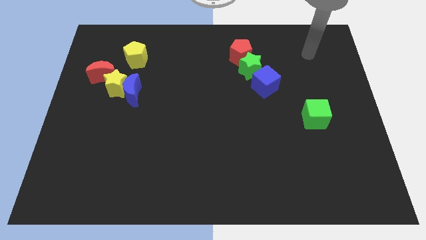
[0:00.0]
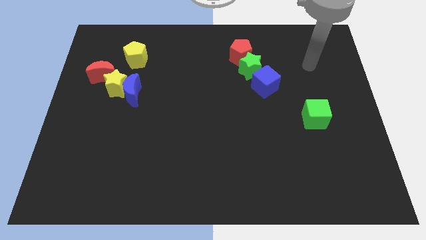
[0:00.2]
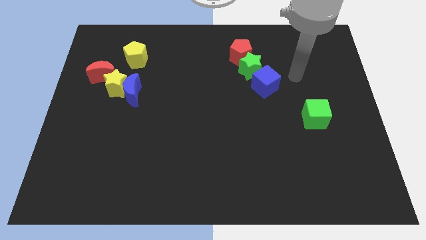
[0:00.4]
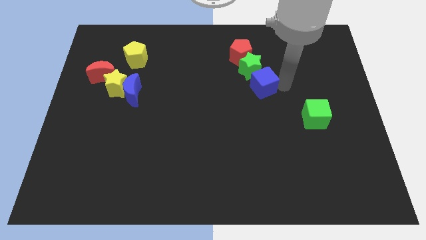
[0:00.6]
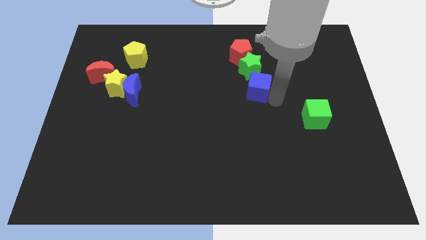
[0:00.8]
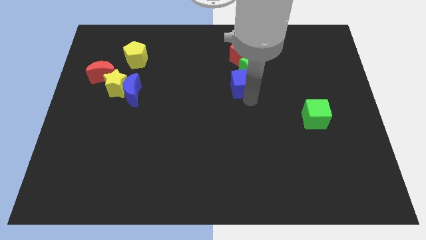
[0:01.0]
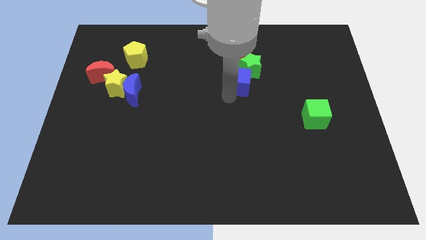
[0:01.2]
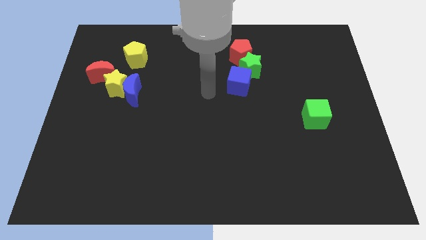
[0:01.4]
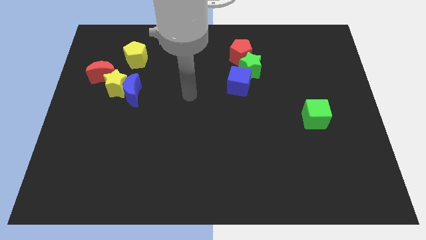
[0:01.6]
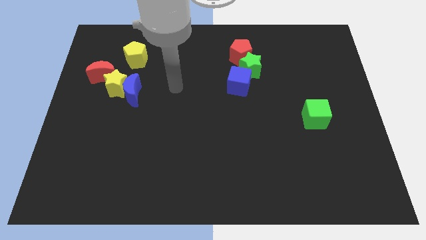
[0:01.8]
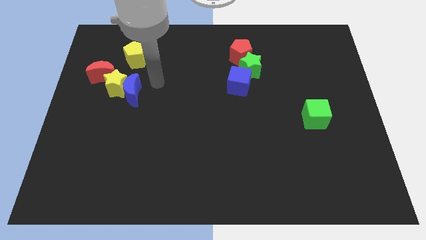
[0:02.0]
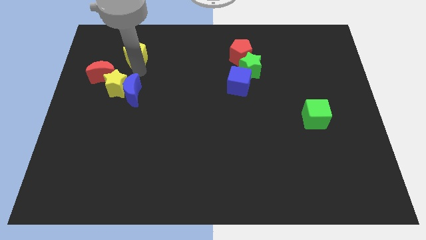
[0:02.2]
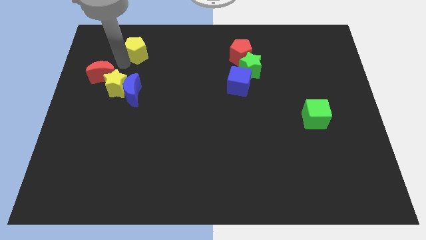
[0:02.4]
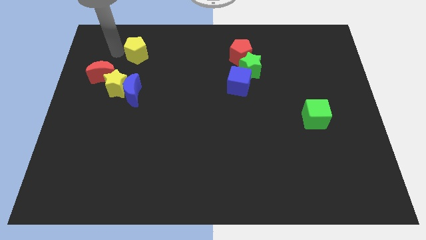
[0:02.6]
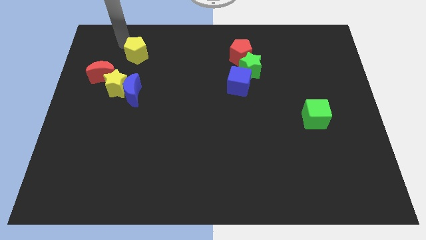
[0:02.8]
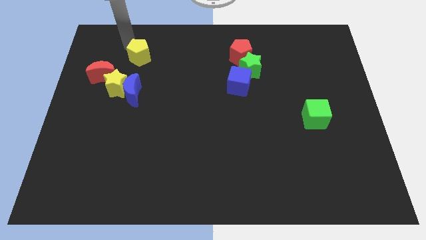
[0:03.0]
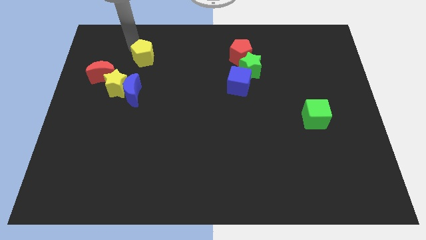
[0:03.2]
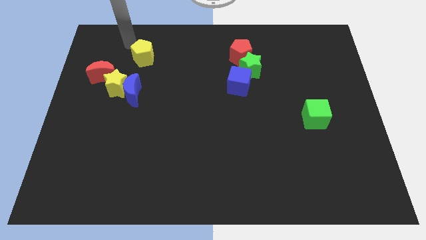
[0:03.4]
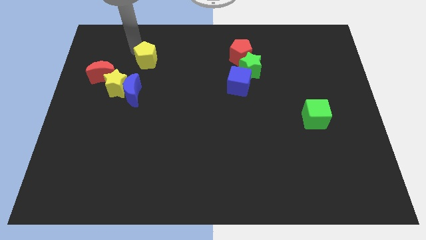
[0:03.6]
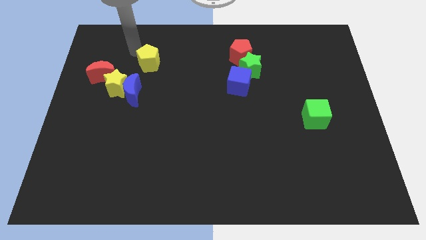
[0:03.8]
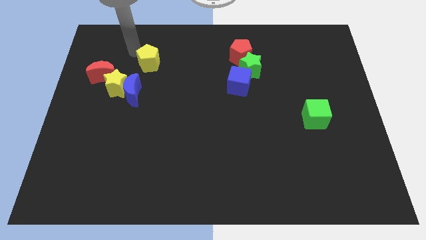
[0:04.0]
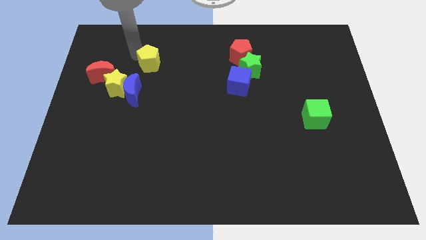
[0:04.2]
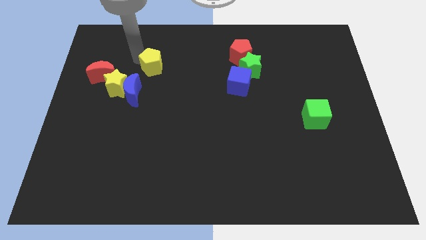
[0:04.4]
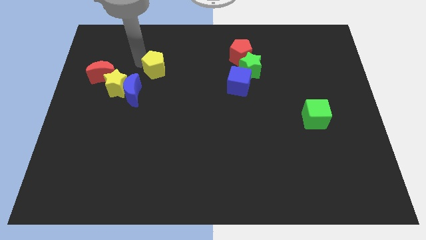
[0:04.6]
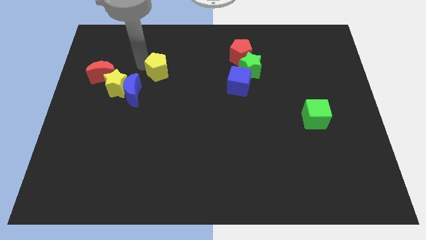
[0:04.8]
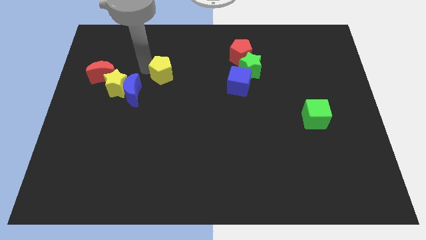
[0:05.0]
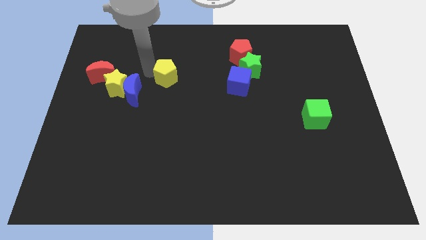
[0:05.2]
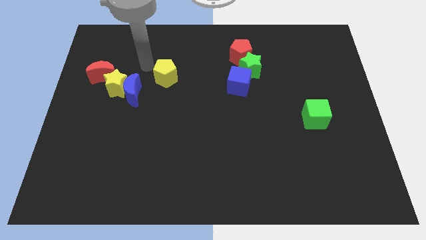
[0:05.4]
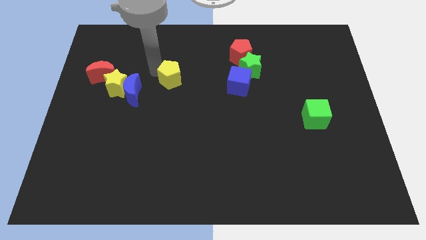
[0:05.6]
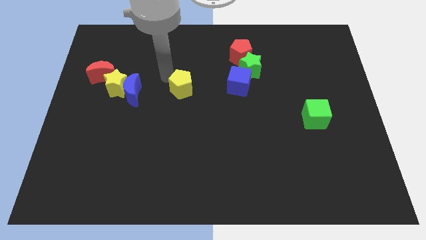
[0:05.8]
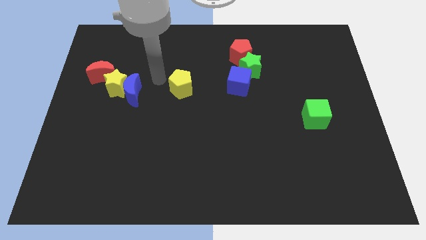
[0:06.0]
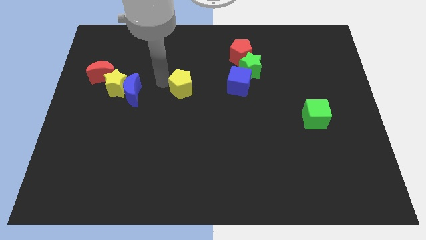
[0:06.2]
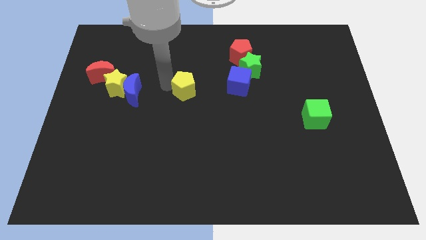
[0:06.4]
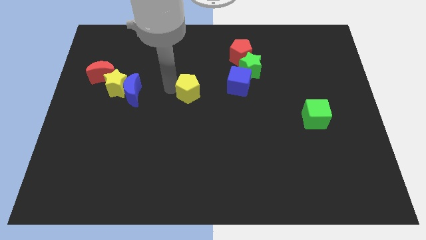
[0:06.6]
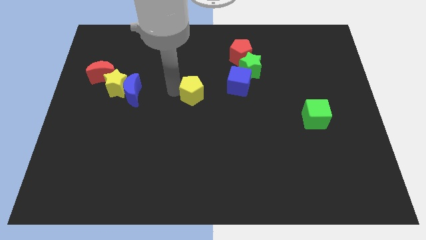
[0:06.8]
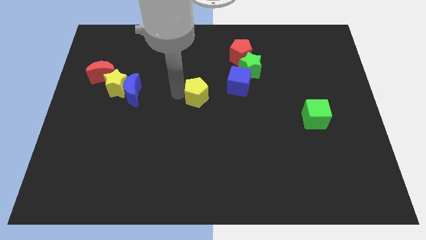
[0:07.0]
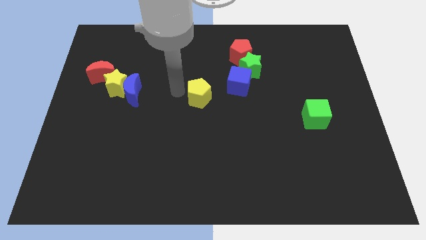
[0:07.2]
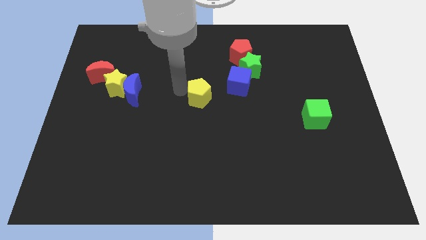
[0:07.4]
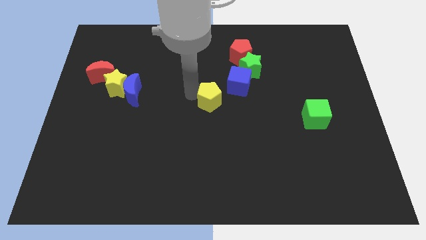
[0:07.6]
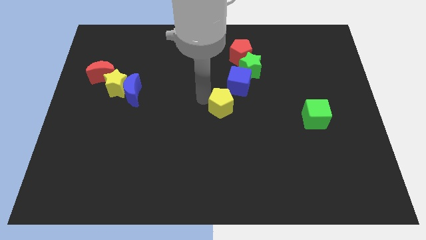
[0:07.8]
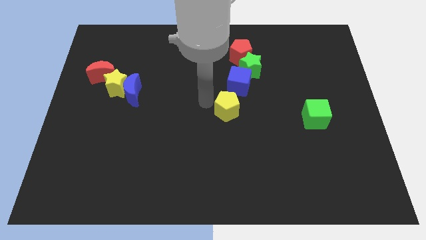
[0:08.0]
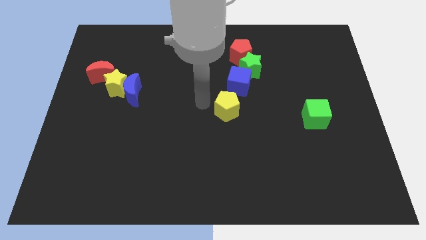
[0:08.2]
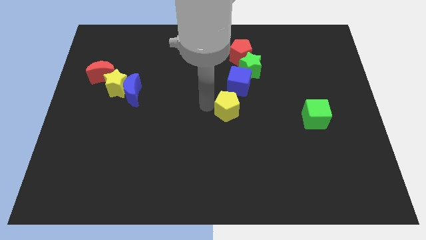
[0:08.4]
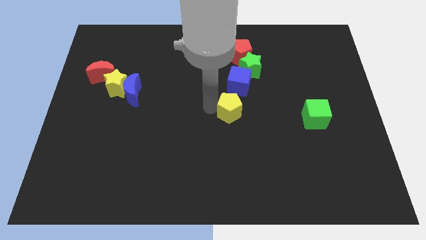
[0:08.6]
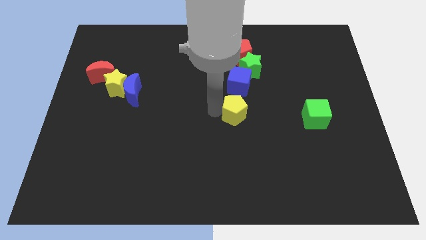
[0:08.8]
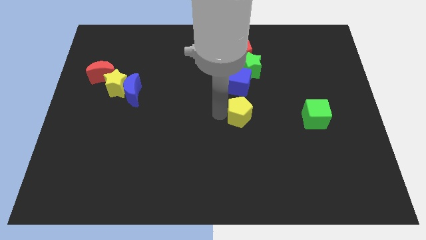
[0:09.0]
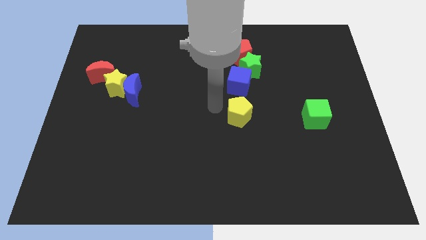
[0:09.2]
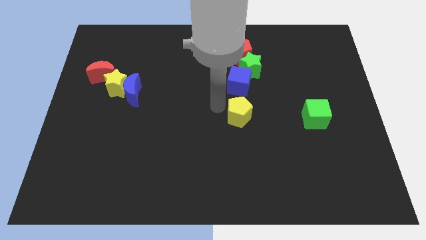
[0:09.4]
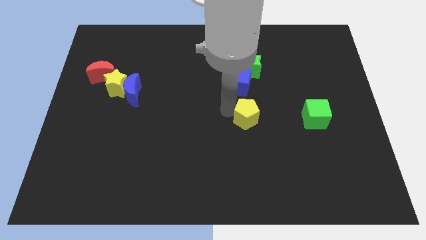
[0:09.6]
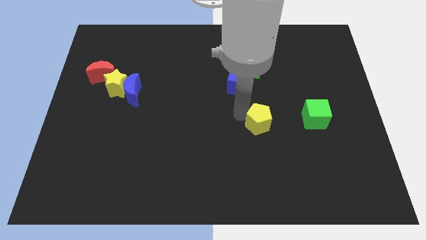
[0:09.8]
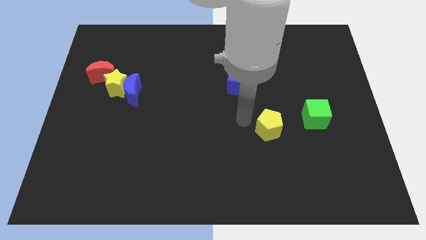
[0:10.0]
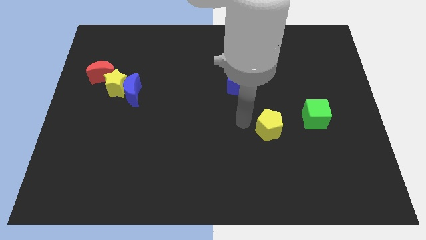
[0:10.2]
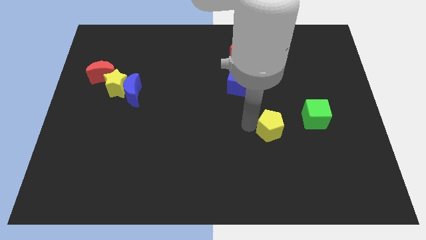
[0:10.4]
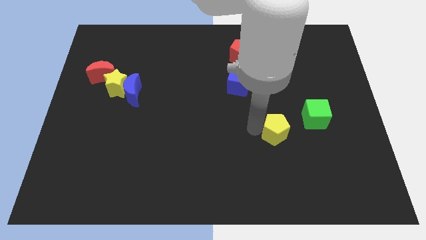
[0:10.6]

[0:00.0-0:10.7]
slide the yellow pentagon to the bottom left side of the green cube

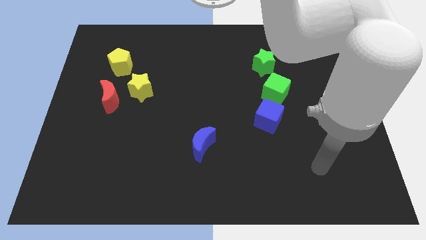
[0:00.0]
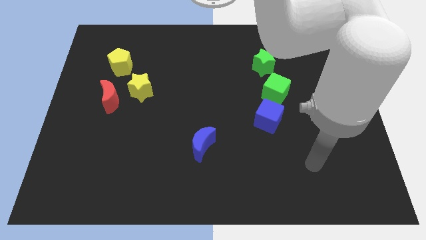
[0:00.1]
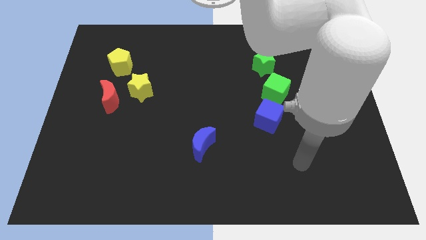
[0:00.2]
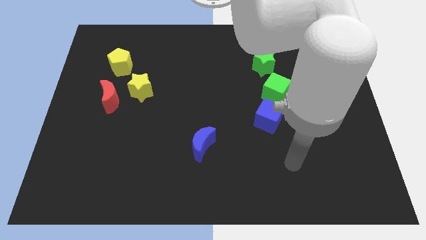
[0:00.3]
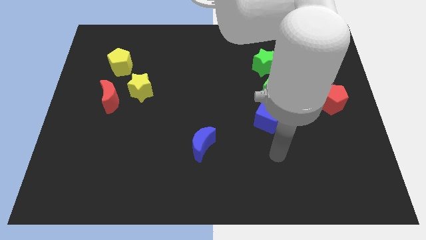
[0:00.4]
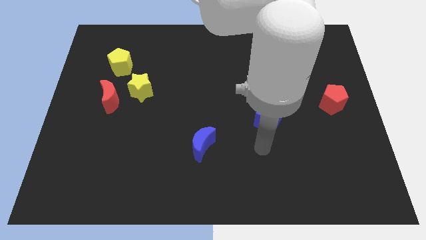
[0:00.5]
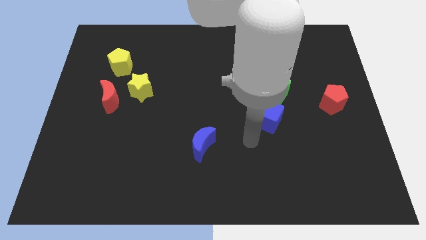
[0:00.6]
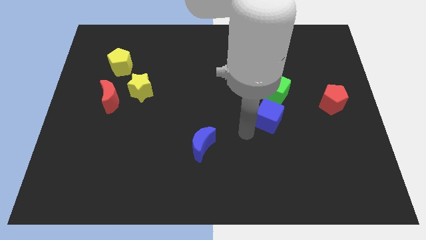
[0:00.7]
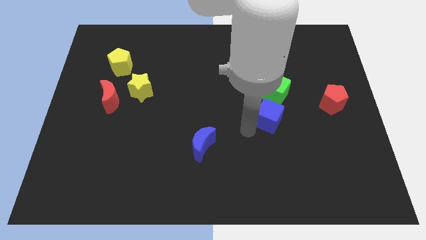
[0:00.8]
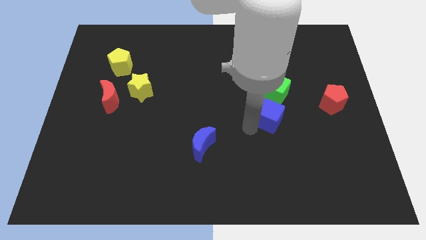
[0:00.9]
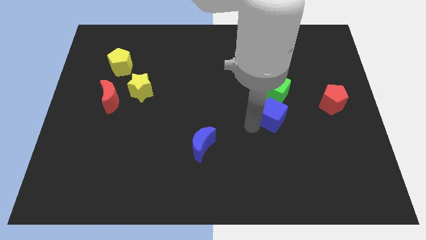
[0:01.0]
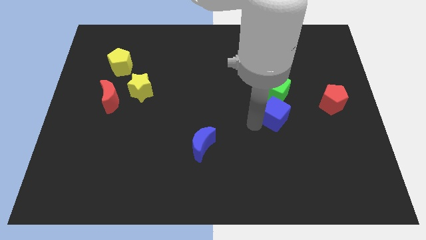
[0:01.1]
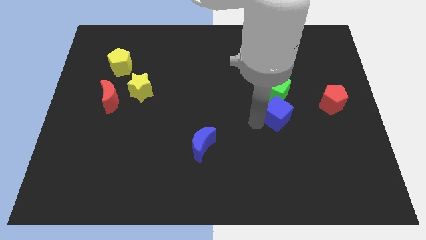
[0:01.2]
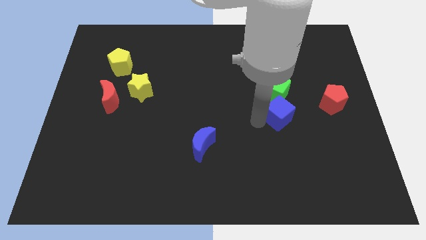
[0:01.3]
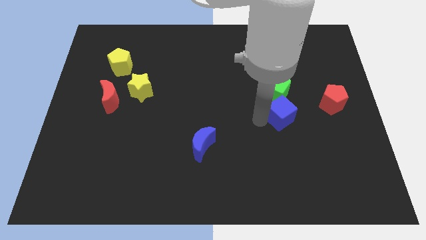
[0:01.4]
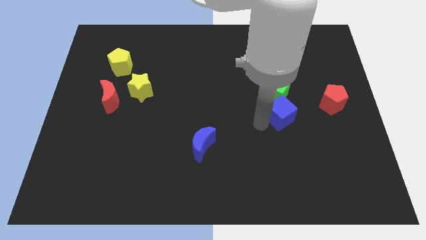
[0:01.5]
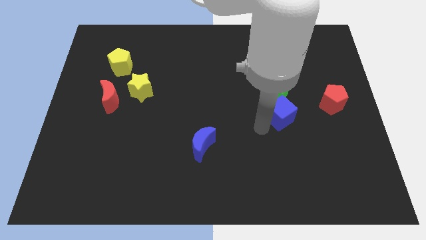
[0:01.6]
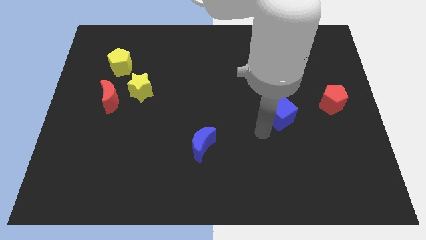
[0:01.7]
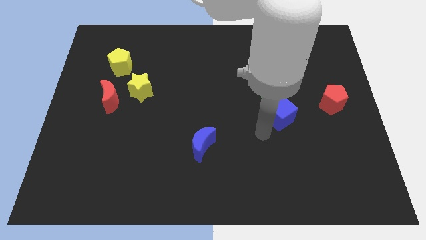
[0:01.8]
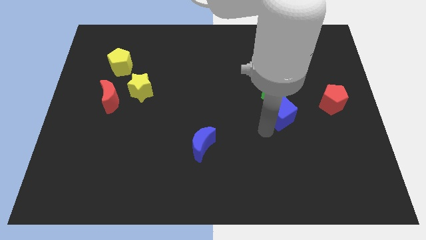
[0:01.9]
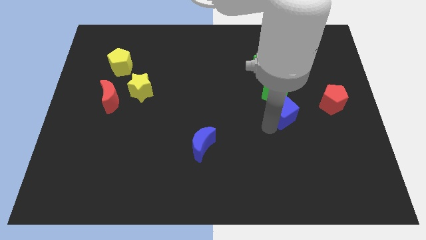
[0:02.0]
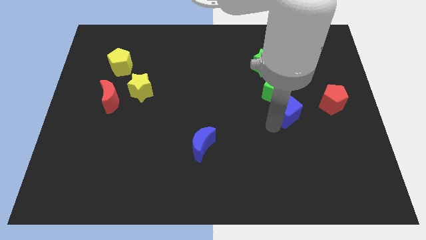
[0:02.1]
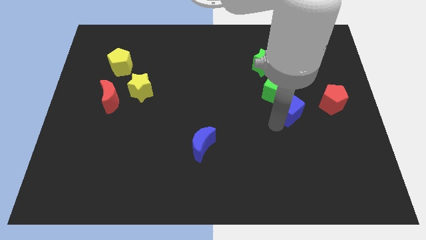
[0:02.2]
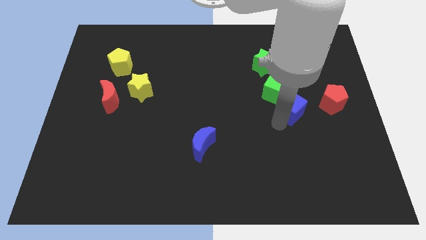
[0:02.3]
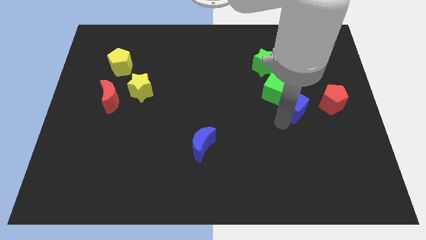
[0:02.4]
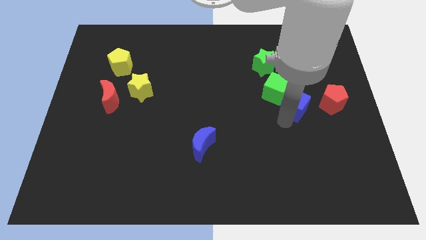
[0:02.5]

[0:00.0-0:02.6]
push the blue cube right of the green cube
